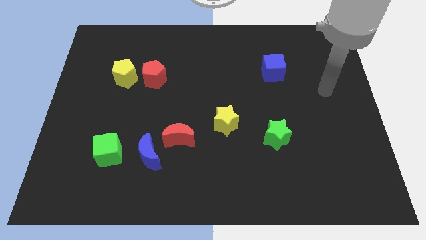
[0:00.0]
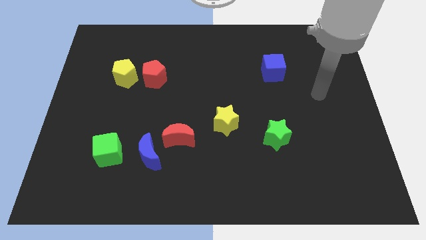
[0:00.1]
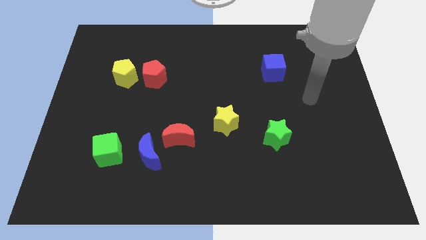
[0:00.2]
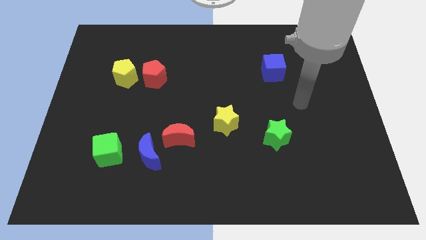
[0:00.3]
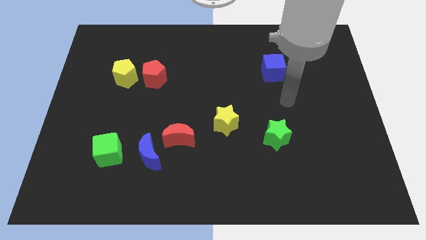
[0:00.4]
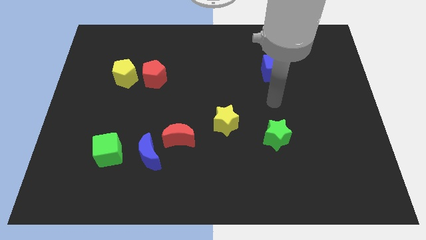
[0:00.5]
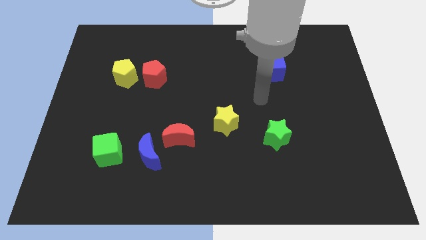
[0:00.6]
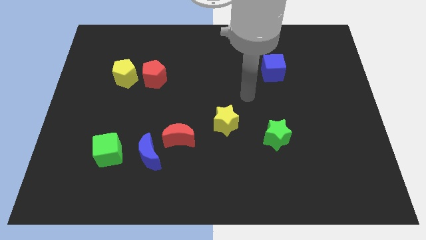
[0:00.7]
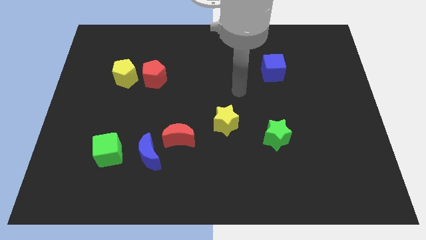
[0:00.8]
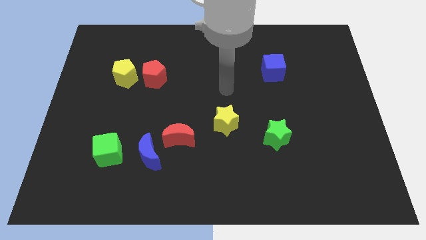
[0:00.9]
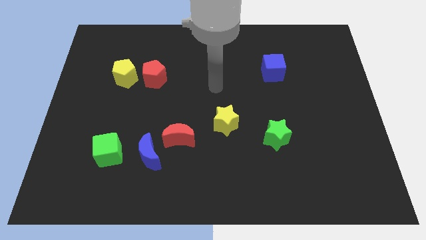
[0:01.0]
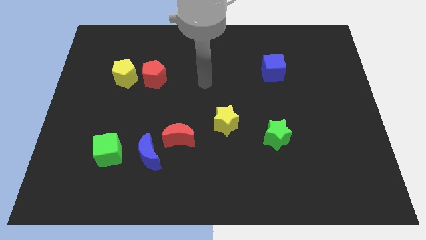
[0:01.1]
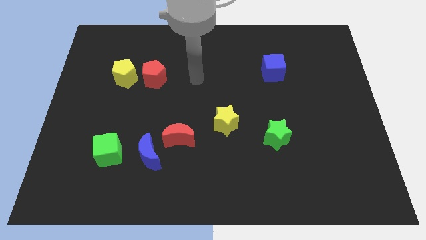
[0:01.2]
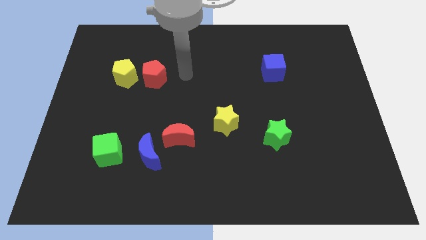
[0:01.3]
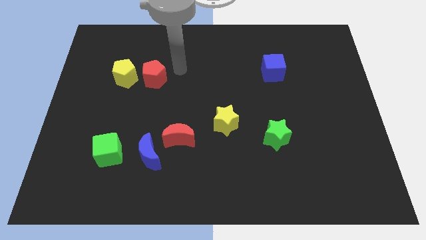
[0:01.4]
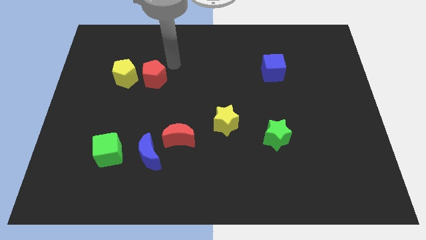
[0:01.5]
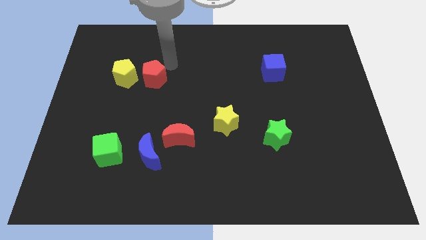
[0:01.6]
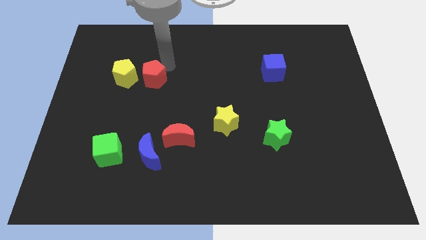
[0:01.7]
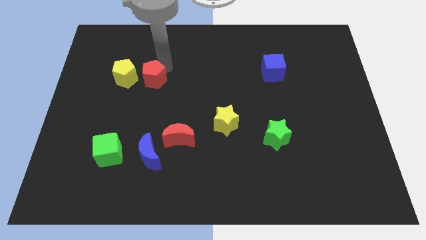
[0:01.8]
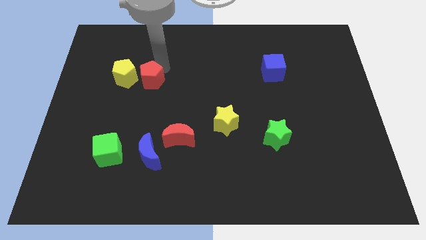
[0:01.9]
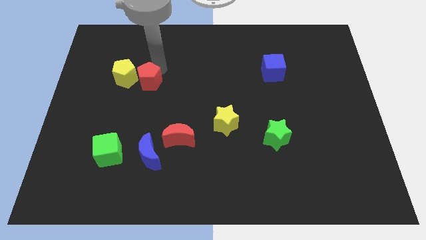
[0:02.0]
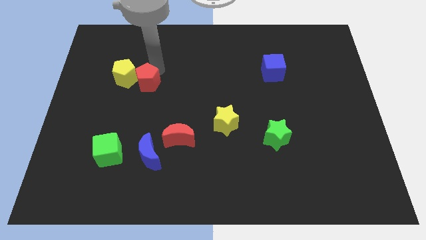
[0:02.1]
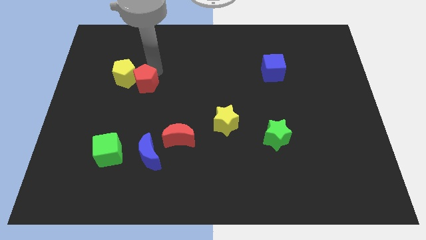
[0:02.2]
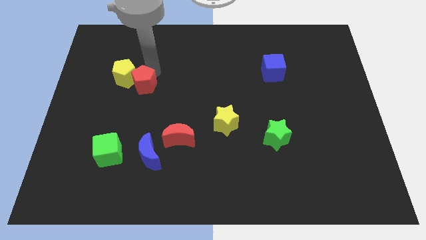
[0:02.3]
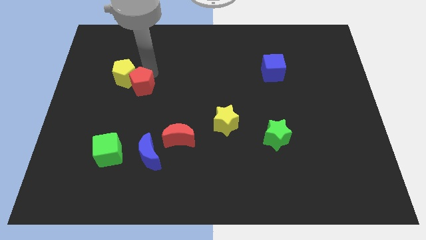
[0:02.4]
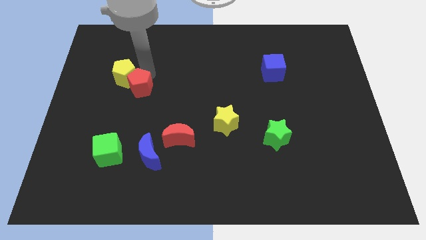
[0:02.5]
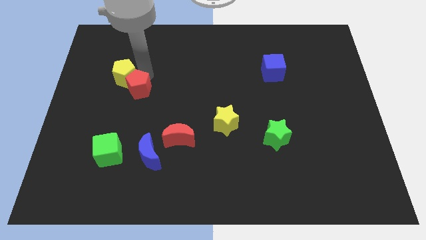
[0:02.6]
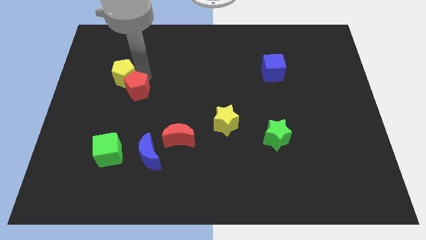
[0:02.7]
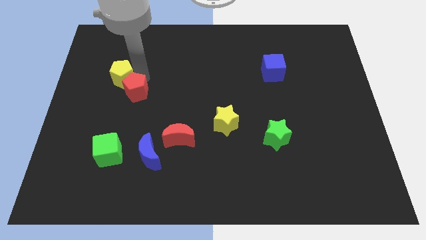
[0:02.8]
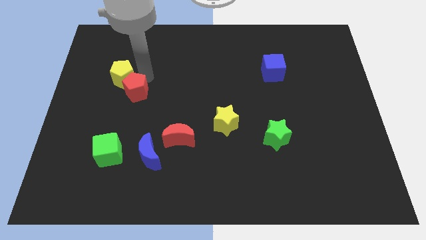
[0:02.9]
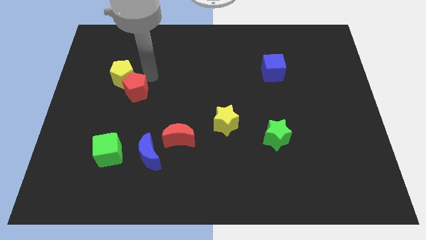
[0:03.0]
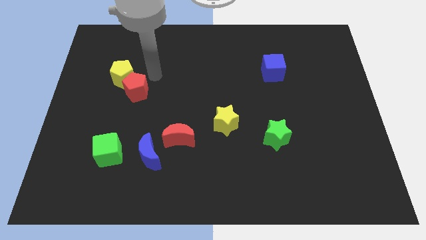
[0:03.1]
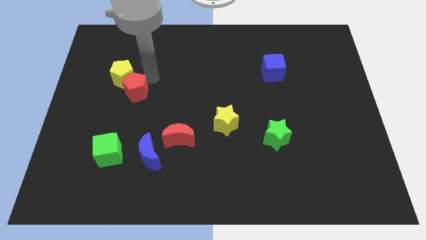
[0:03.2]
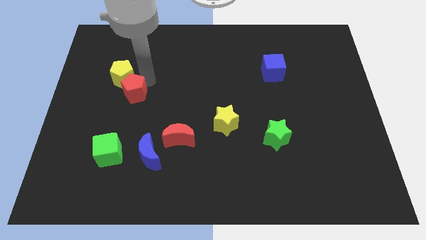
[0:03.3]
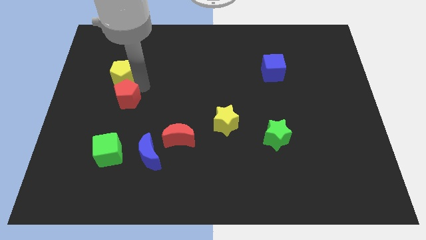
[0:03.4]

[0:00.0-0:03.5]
slightly move the red pentagon downwards and then left

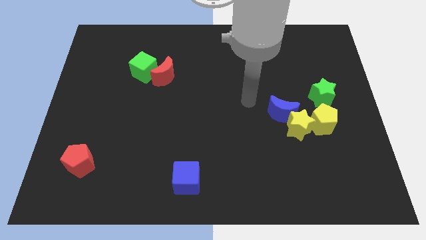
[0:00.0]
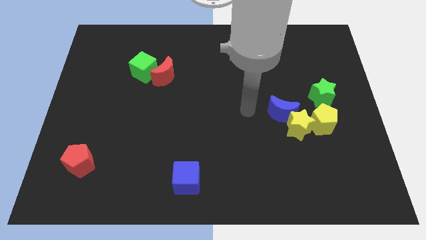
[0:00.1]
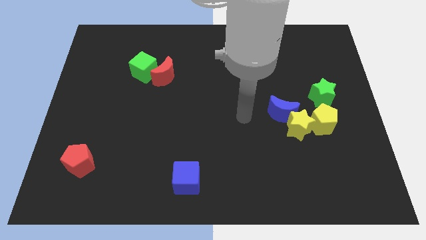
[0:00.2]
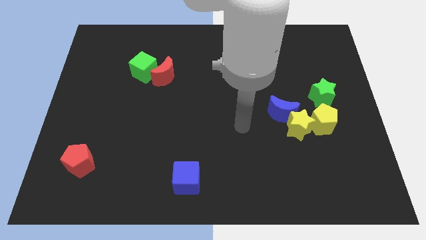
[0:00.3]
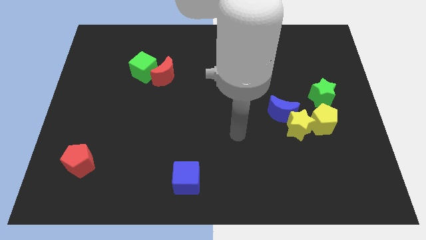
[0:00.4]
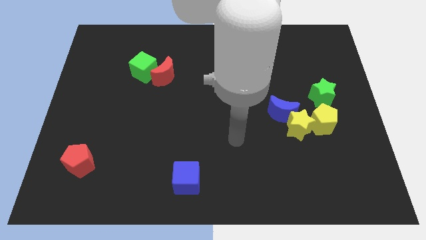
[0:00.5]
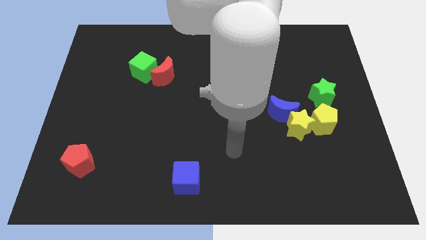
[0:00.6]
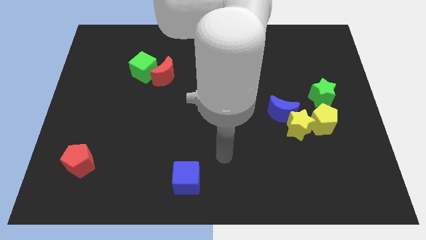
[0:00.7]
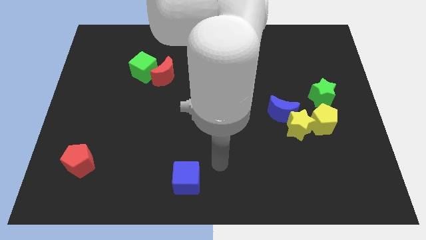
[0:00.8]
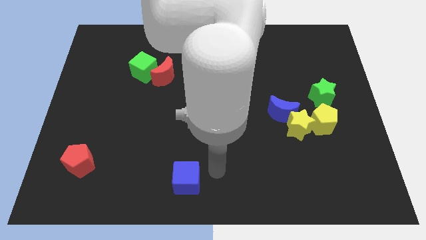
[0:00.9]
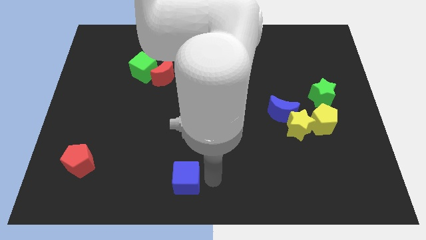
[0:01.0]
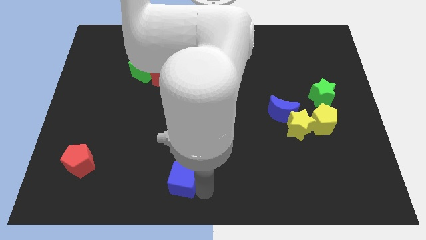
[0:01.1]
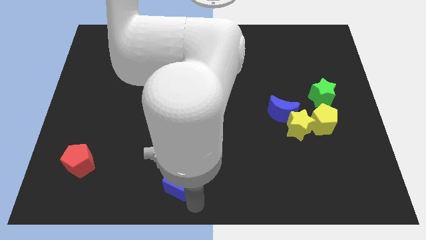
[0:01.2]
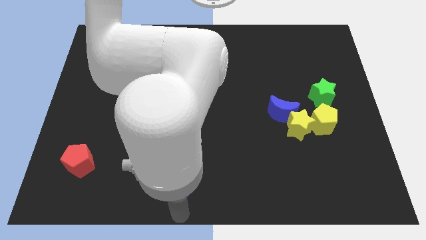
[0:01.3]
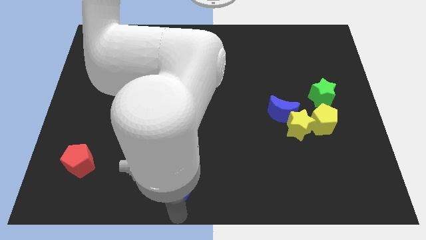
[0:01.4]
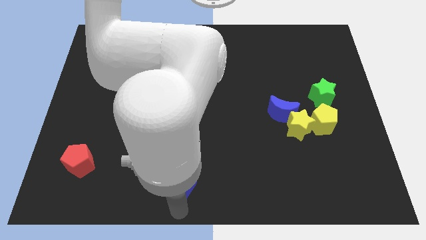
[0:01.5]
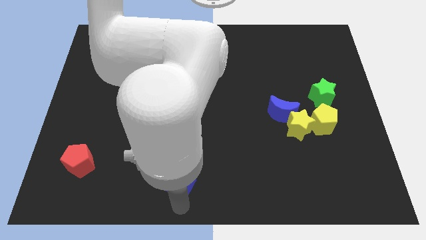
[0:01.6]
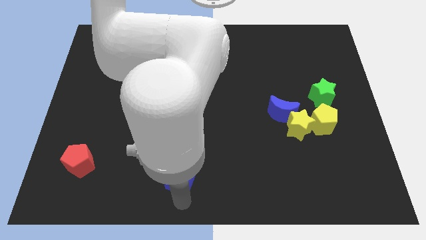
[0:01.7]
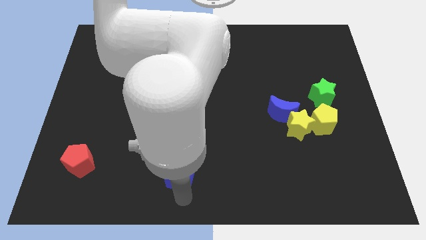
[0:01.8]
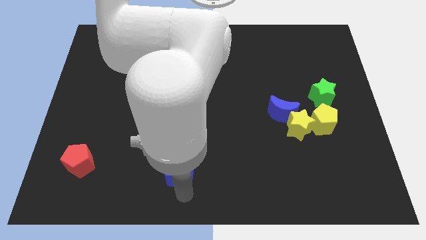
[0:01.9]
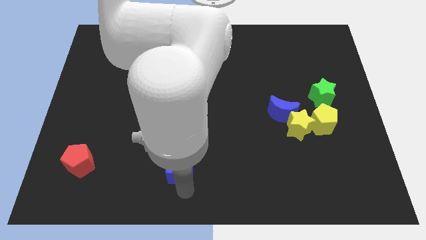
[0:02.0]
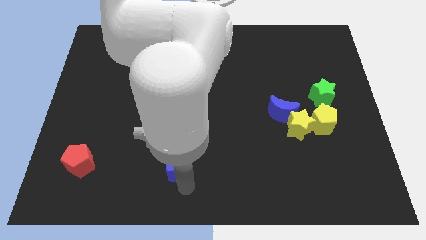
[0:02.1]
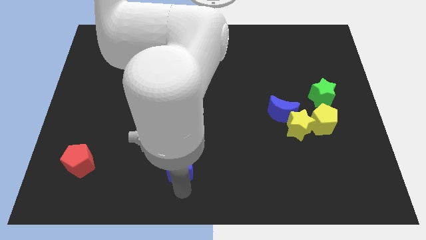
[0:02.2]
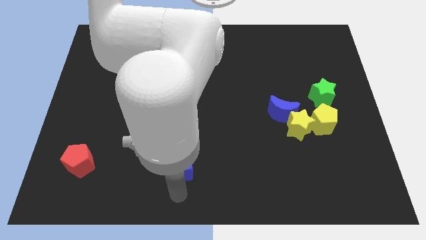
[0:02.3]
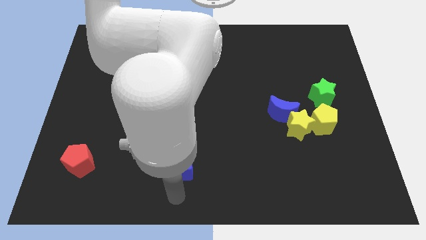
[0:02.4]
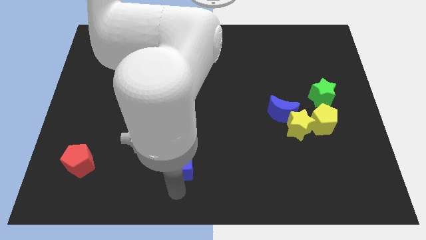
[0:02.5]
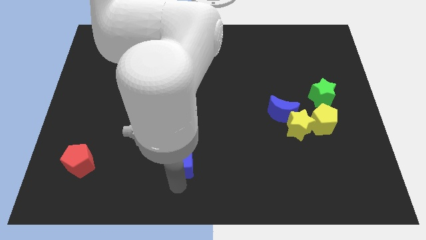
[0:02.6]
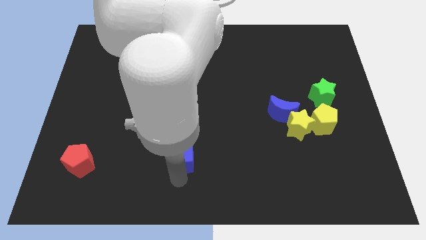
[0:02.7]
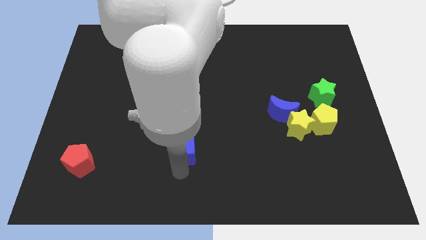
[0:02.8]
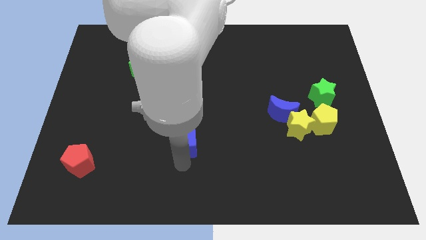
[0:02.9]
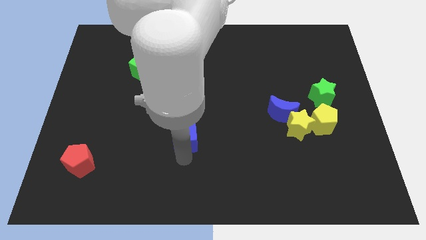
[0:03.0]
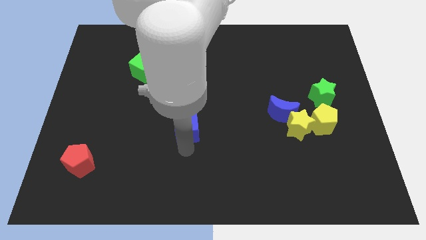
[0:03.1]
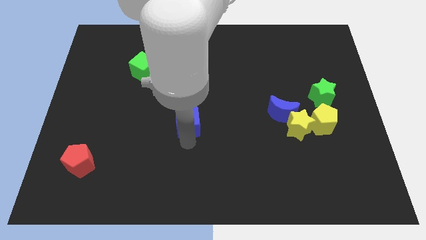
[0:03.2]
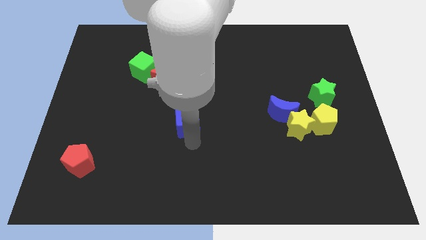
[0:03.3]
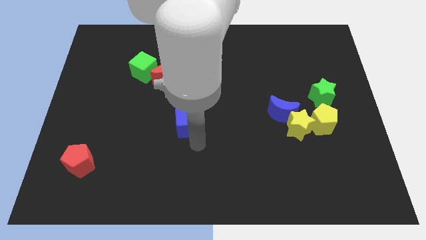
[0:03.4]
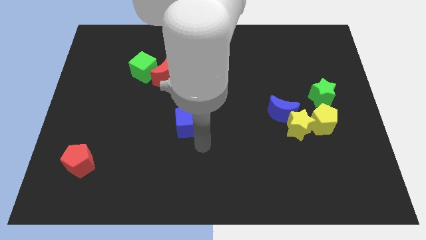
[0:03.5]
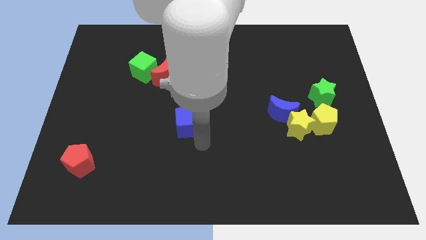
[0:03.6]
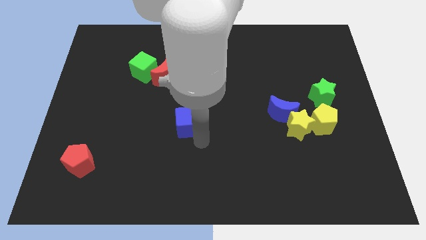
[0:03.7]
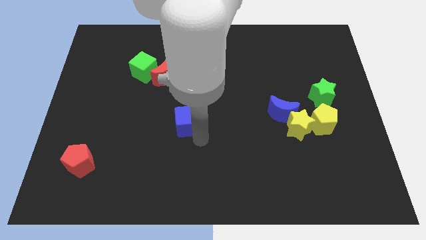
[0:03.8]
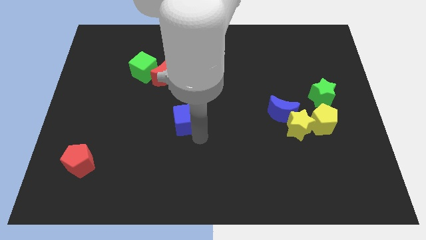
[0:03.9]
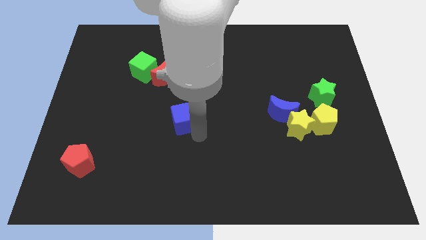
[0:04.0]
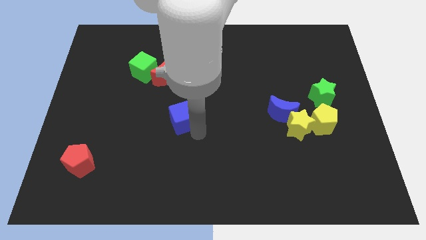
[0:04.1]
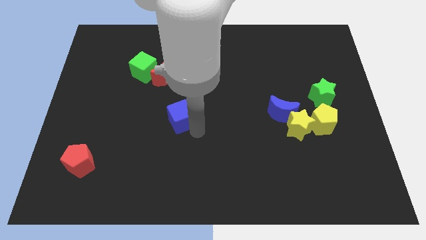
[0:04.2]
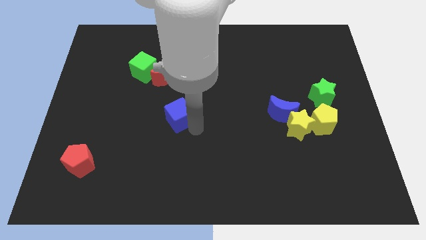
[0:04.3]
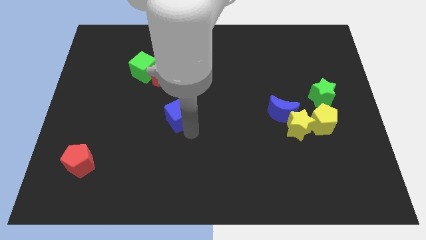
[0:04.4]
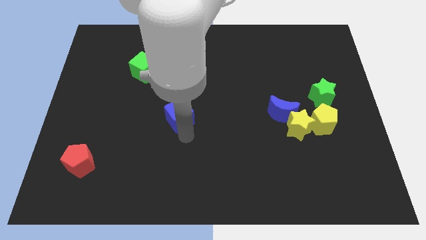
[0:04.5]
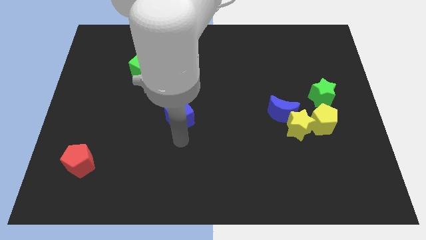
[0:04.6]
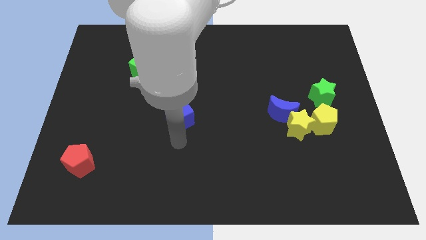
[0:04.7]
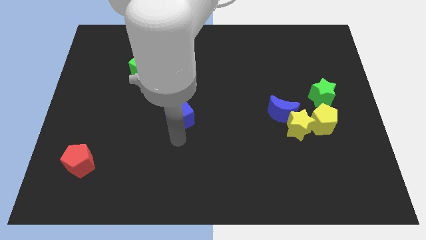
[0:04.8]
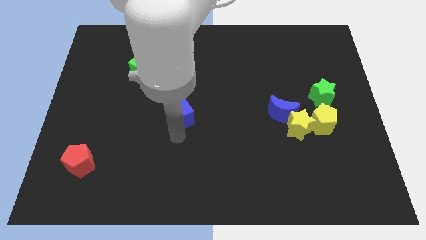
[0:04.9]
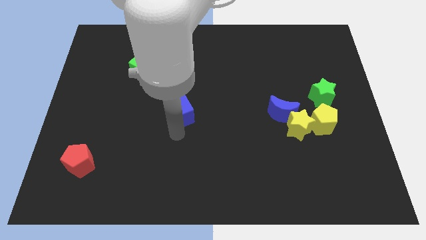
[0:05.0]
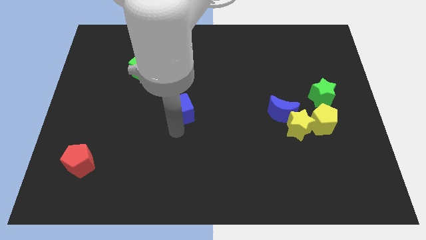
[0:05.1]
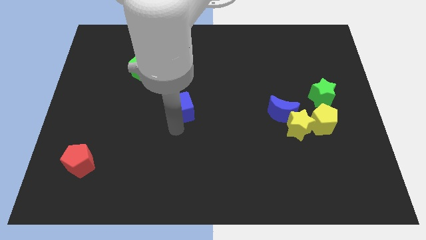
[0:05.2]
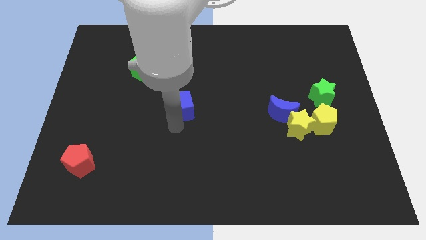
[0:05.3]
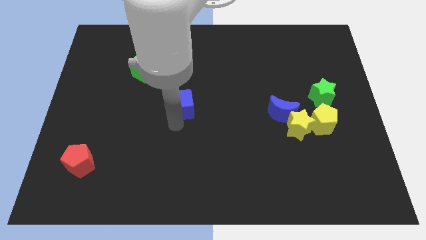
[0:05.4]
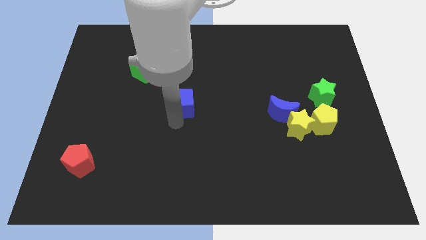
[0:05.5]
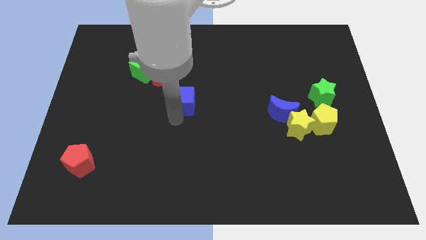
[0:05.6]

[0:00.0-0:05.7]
push the blue cube upwards
